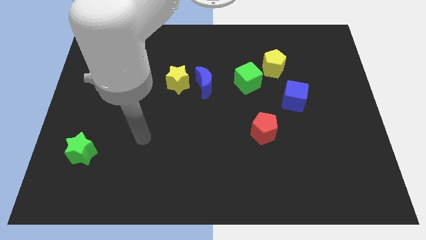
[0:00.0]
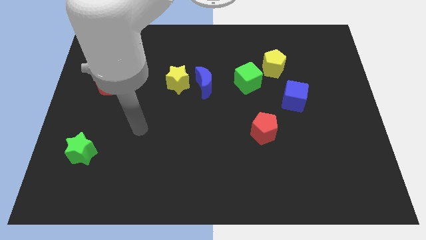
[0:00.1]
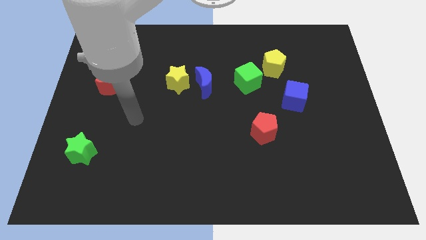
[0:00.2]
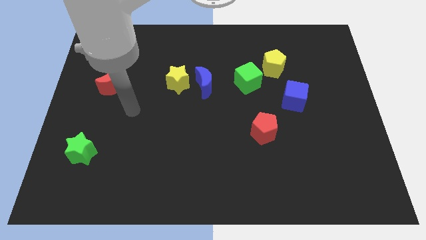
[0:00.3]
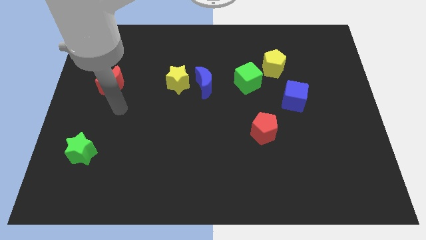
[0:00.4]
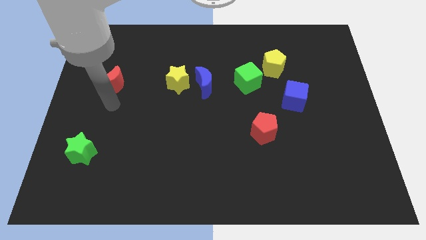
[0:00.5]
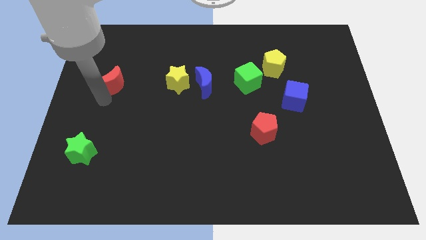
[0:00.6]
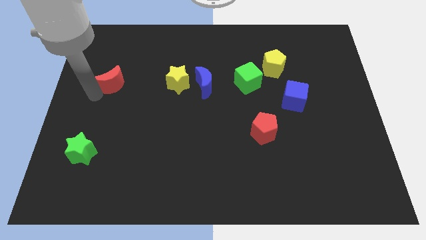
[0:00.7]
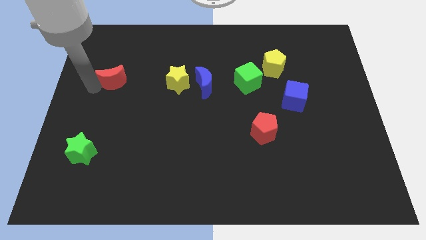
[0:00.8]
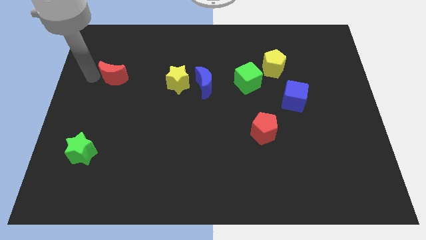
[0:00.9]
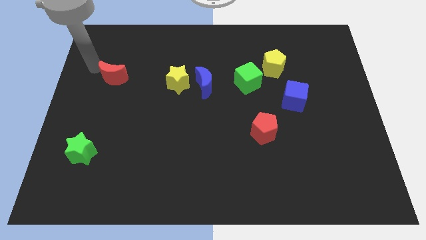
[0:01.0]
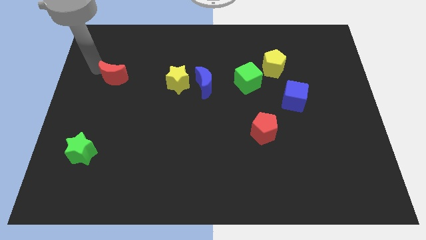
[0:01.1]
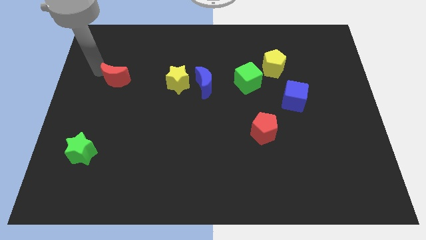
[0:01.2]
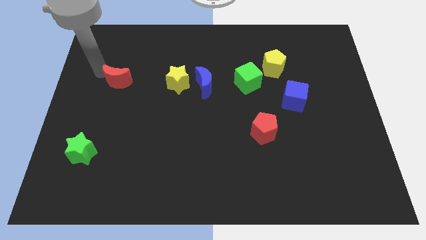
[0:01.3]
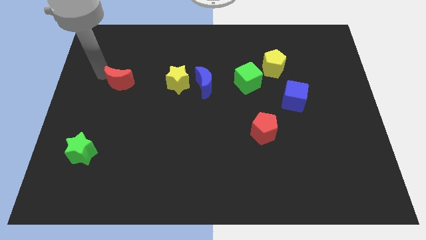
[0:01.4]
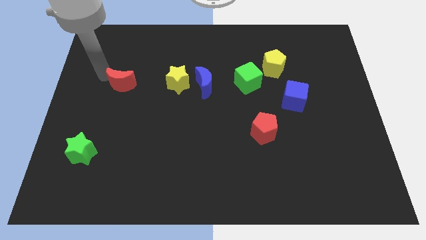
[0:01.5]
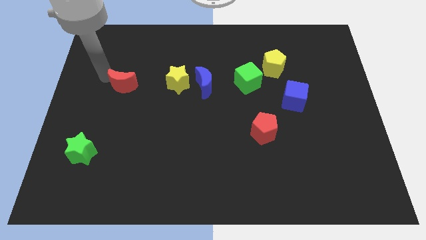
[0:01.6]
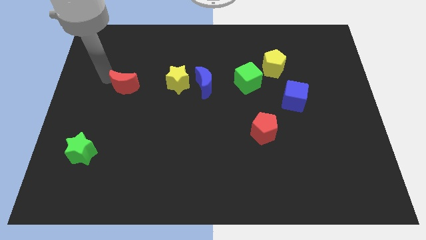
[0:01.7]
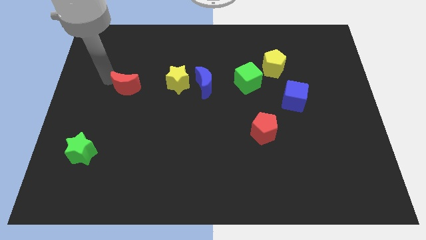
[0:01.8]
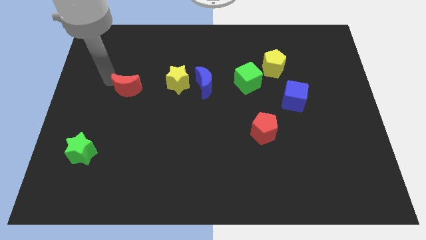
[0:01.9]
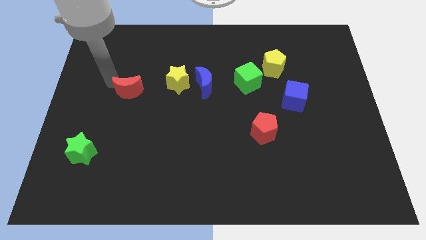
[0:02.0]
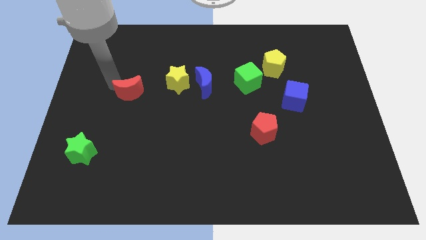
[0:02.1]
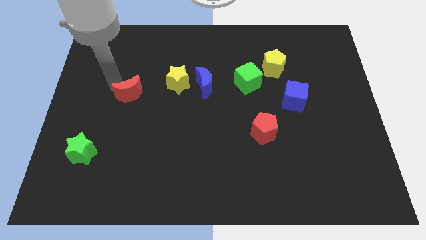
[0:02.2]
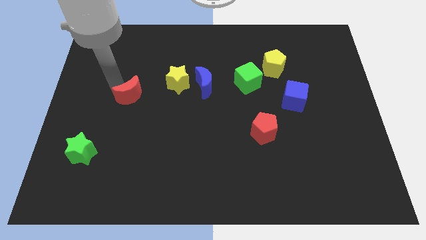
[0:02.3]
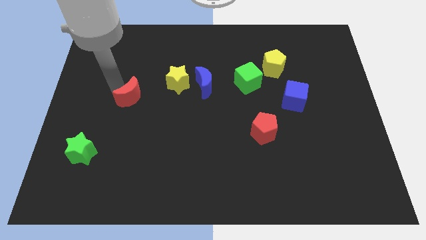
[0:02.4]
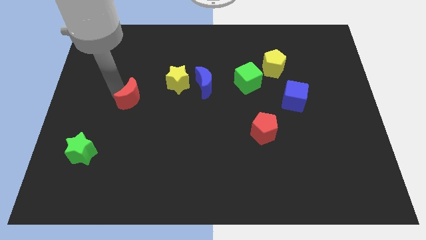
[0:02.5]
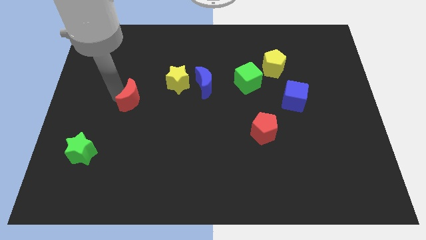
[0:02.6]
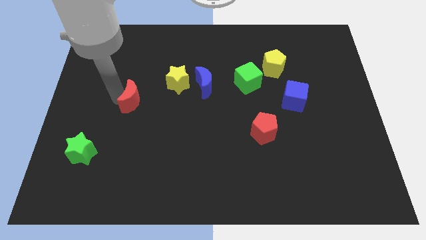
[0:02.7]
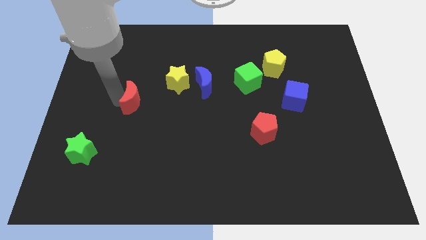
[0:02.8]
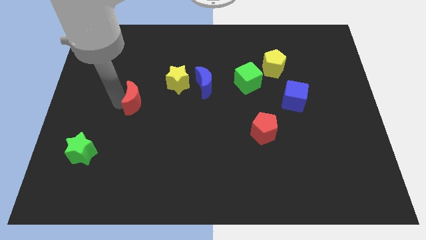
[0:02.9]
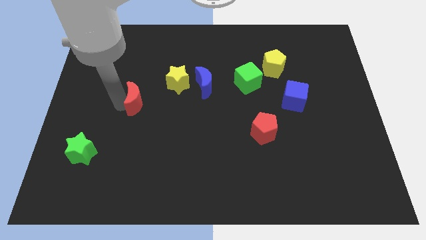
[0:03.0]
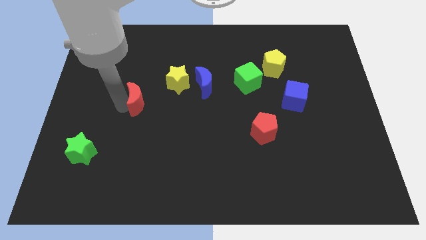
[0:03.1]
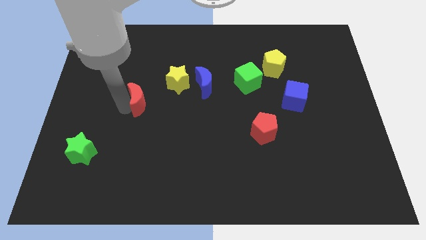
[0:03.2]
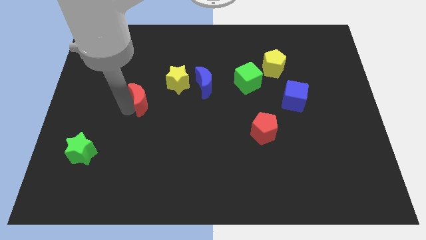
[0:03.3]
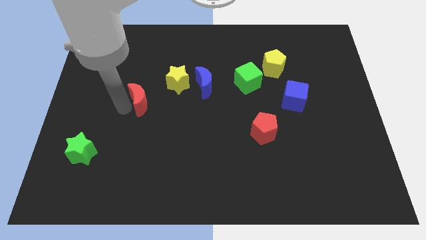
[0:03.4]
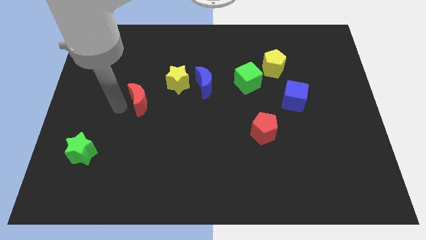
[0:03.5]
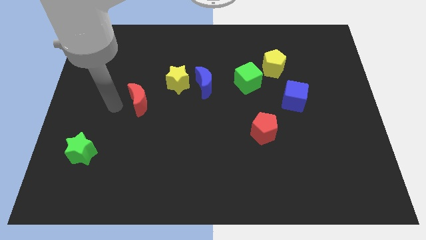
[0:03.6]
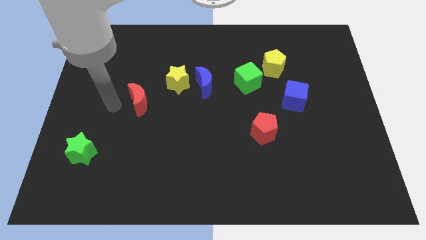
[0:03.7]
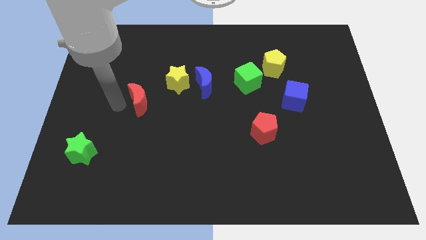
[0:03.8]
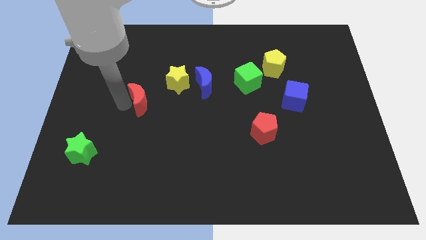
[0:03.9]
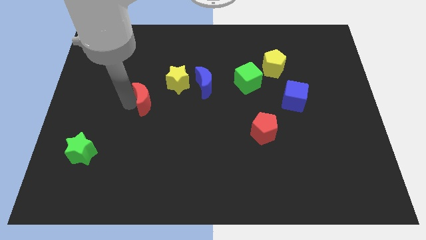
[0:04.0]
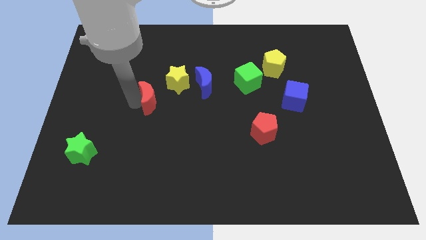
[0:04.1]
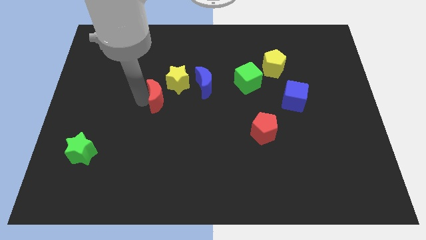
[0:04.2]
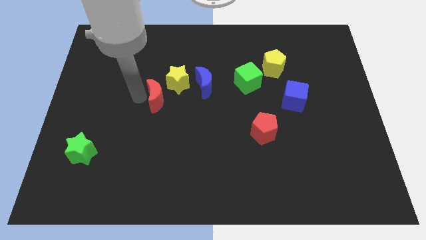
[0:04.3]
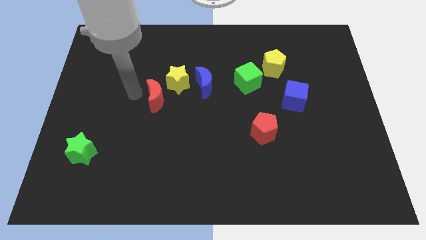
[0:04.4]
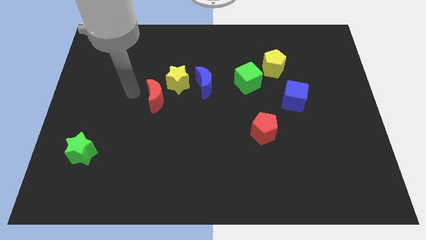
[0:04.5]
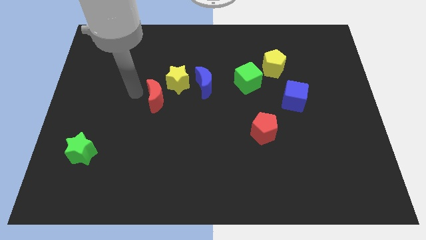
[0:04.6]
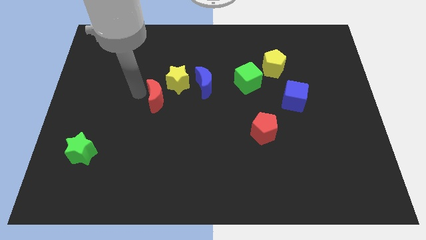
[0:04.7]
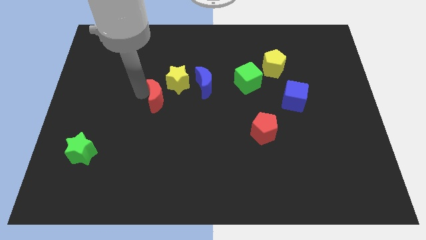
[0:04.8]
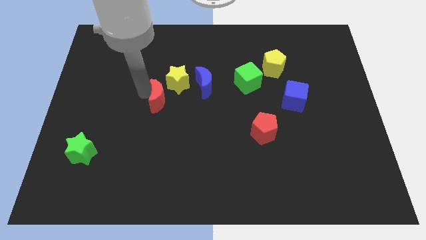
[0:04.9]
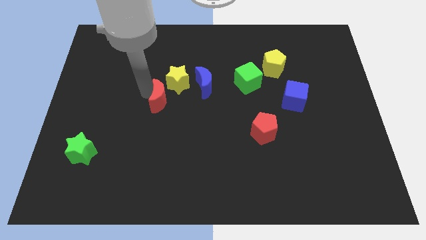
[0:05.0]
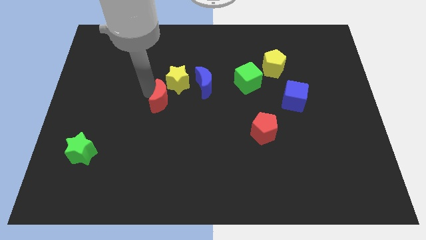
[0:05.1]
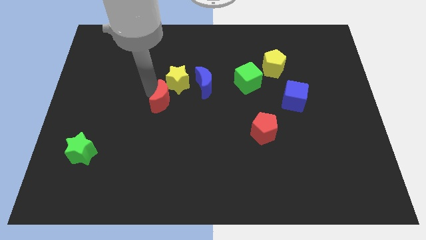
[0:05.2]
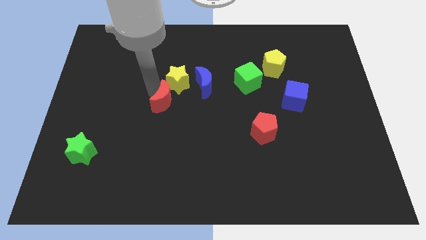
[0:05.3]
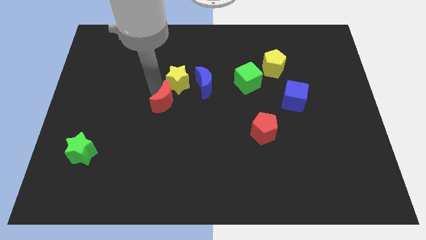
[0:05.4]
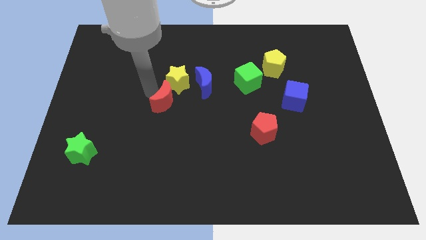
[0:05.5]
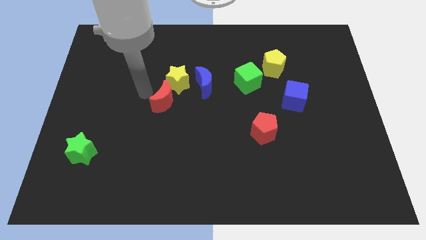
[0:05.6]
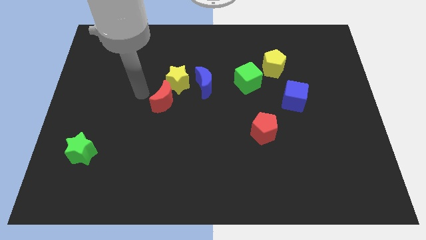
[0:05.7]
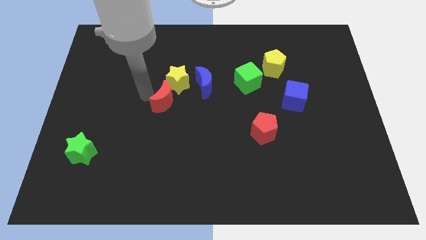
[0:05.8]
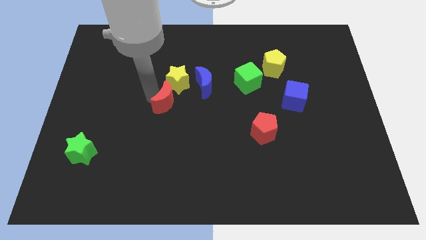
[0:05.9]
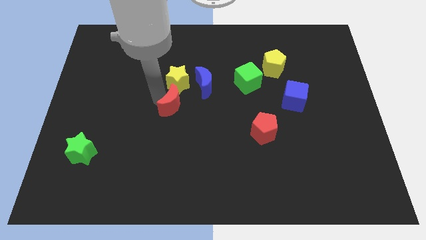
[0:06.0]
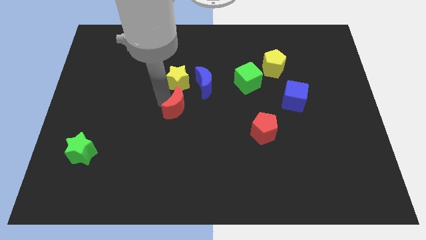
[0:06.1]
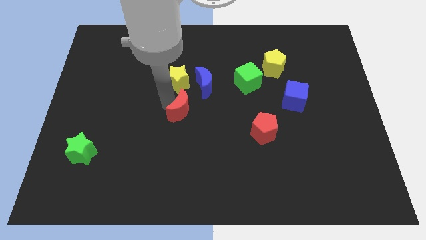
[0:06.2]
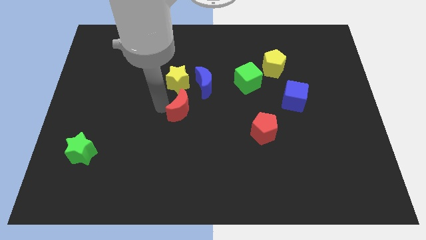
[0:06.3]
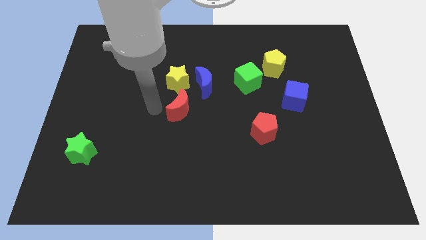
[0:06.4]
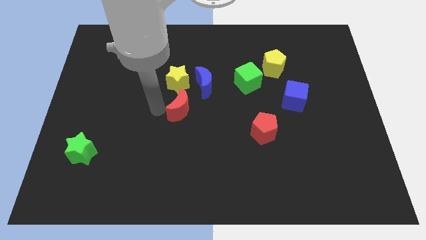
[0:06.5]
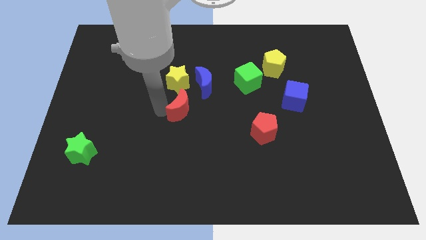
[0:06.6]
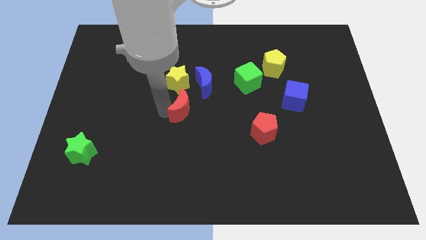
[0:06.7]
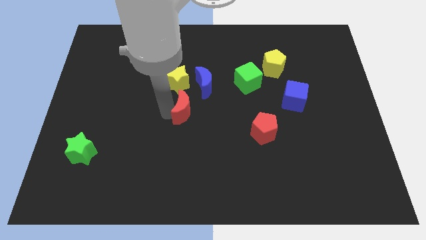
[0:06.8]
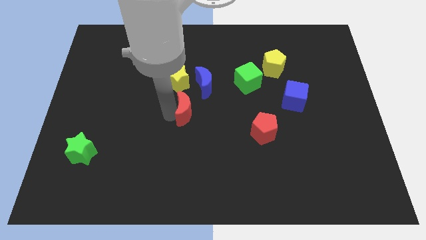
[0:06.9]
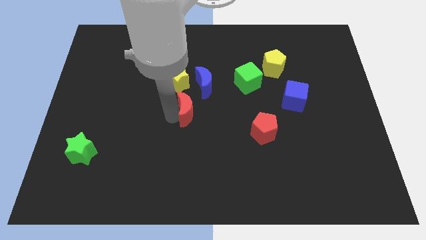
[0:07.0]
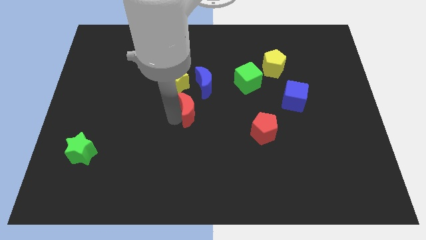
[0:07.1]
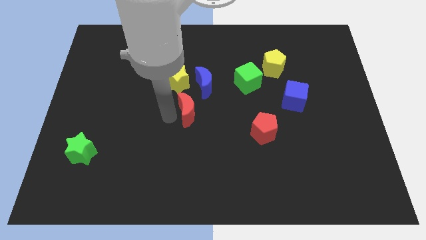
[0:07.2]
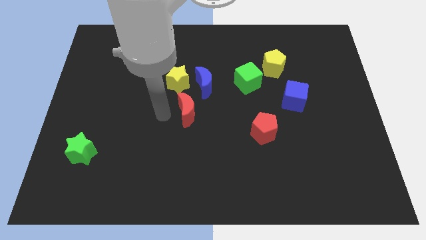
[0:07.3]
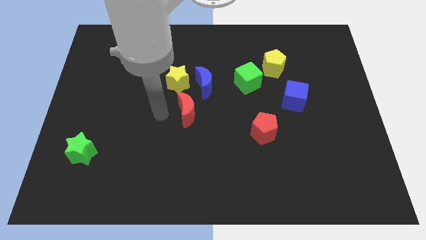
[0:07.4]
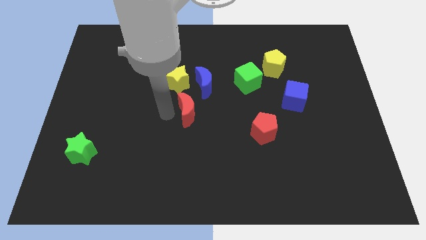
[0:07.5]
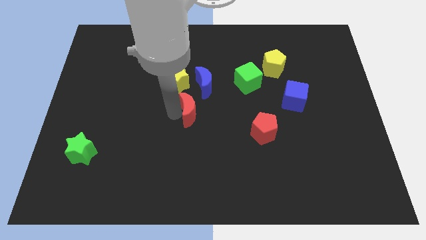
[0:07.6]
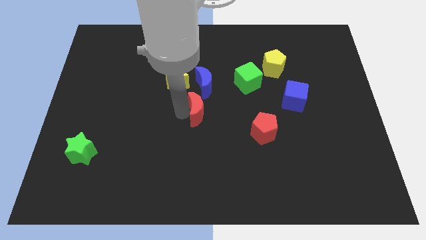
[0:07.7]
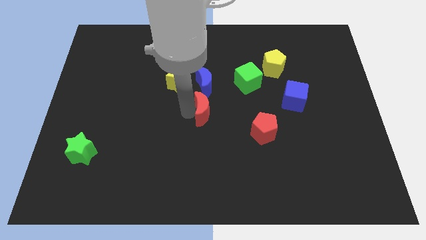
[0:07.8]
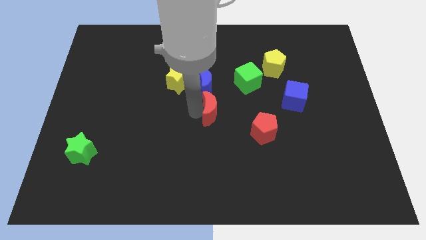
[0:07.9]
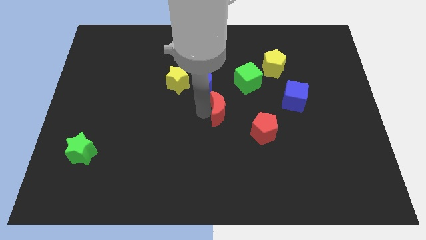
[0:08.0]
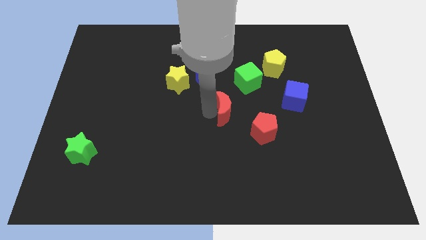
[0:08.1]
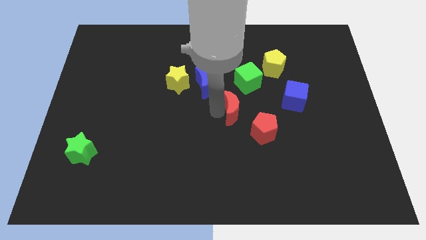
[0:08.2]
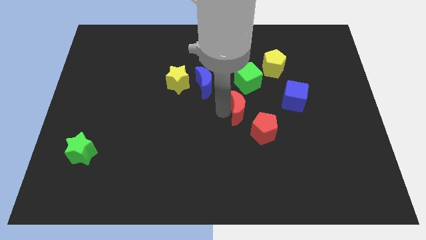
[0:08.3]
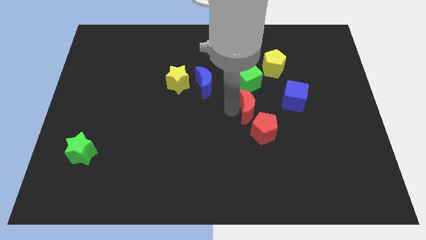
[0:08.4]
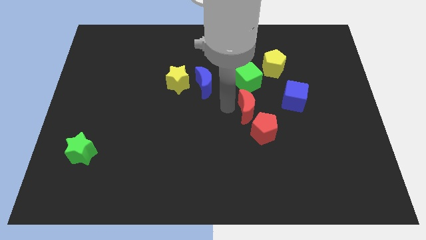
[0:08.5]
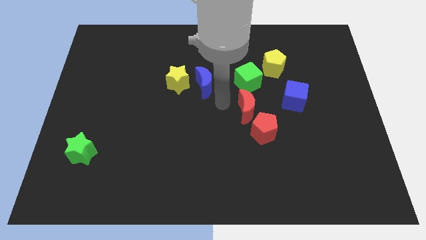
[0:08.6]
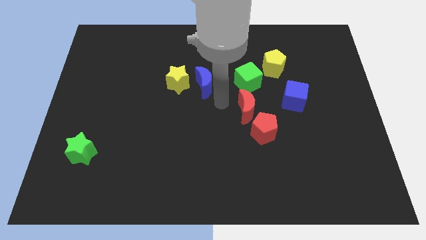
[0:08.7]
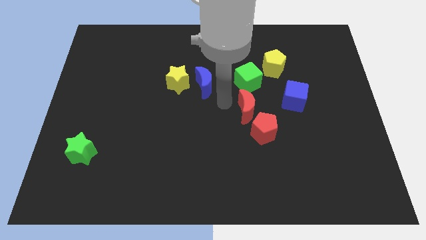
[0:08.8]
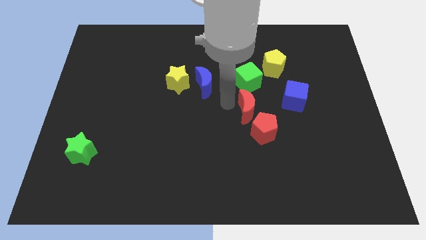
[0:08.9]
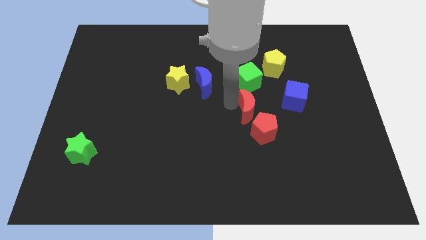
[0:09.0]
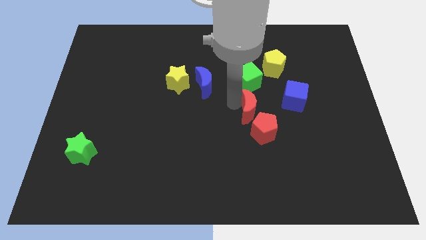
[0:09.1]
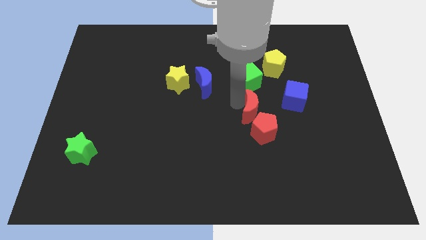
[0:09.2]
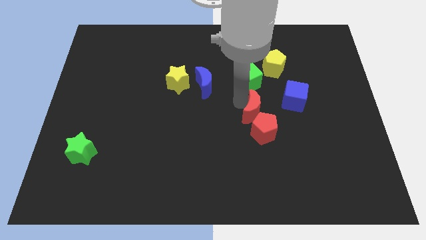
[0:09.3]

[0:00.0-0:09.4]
push the red moon to the bottom left side of the blue cube
